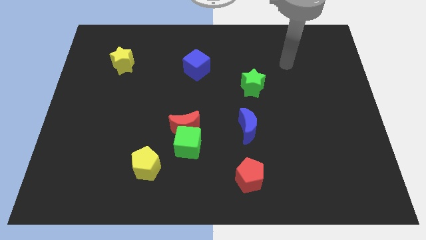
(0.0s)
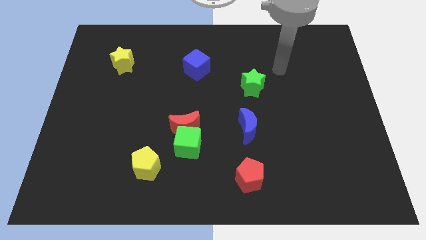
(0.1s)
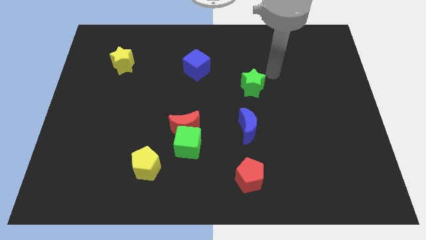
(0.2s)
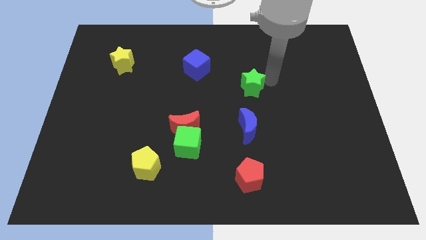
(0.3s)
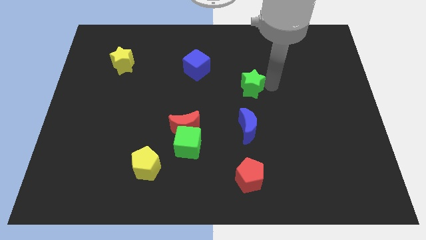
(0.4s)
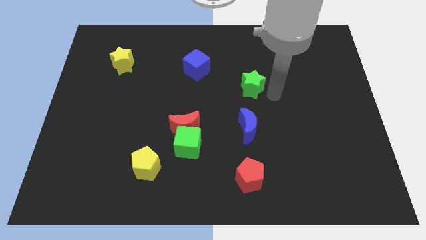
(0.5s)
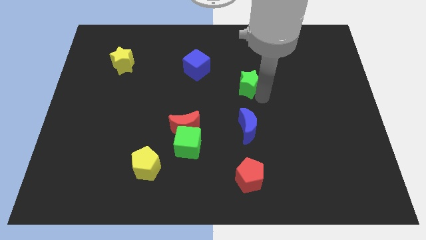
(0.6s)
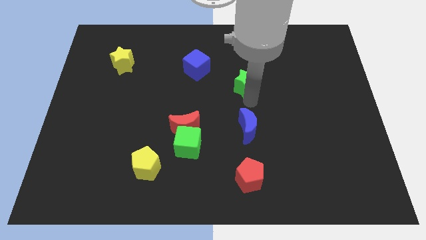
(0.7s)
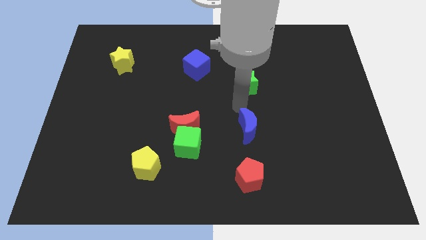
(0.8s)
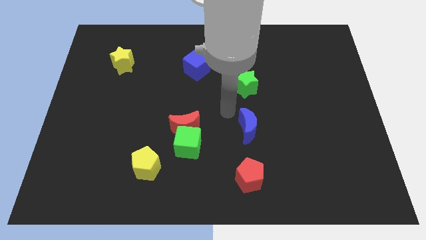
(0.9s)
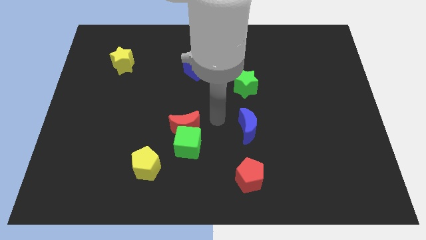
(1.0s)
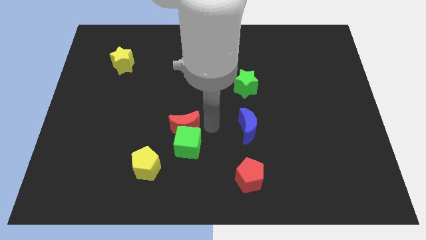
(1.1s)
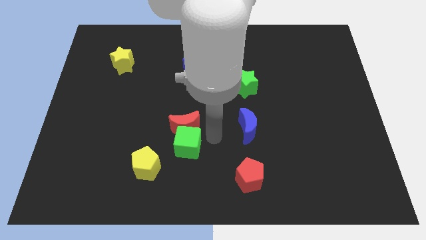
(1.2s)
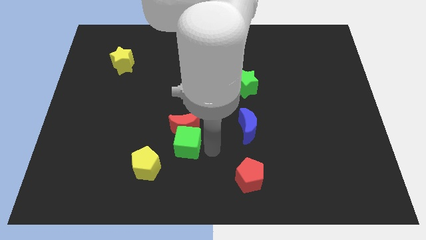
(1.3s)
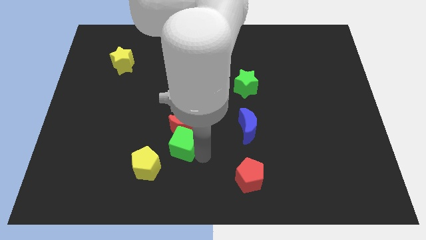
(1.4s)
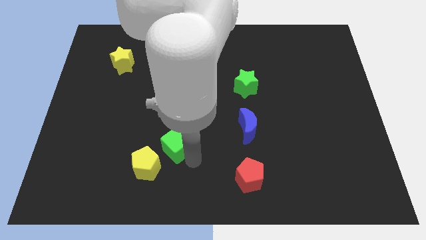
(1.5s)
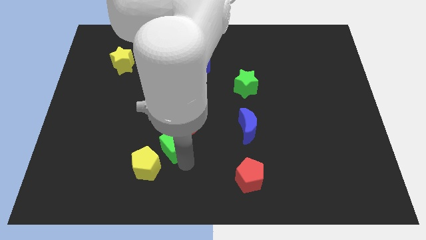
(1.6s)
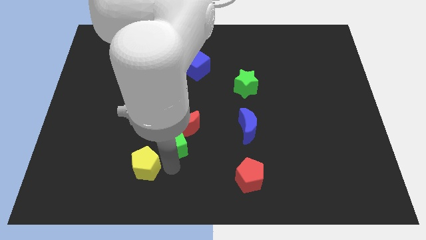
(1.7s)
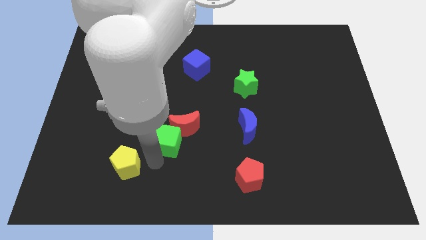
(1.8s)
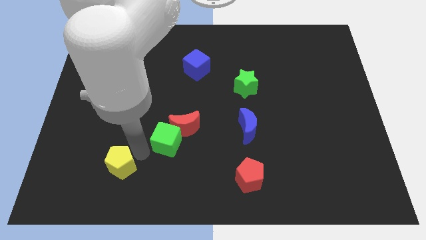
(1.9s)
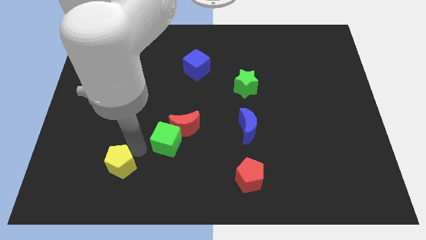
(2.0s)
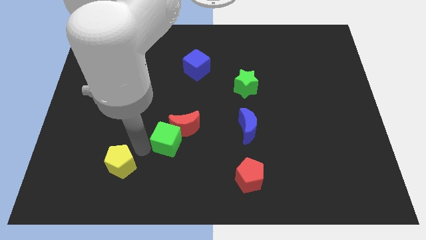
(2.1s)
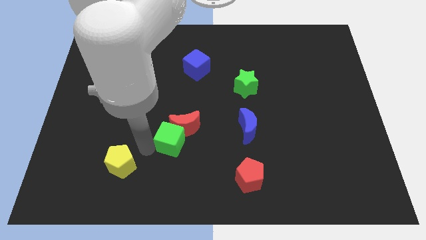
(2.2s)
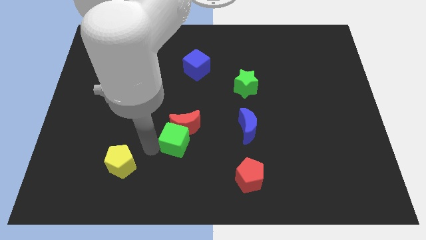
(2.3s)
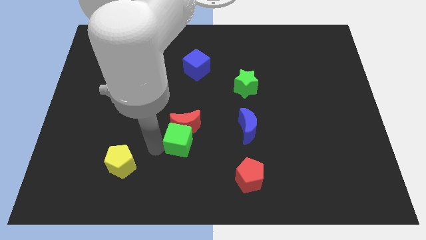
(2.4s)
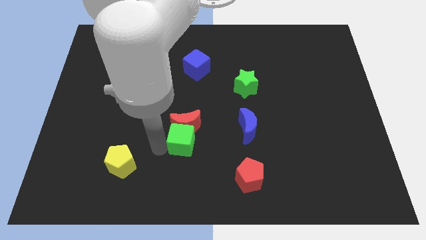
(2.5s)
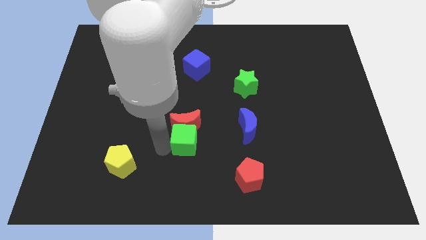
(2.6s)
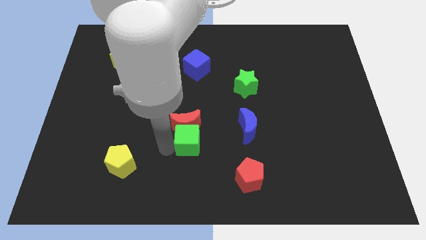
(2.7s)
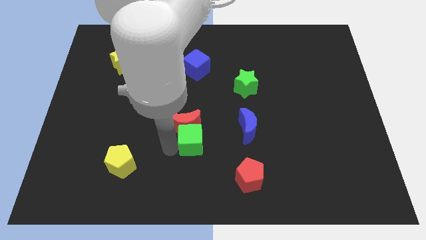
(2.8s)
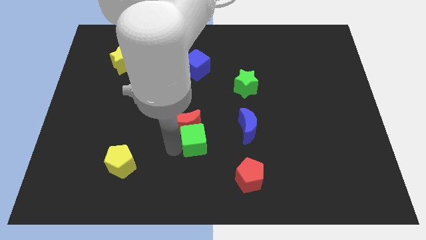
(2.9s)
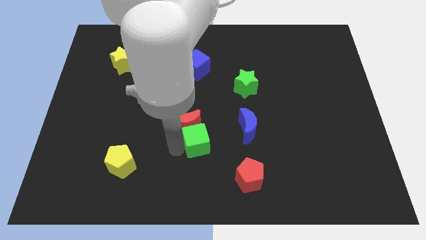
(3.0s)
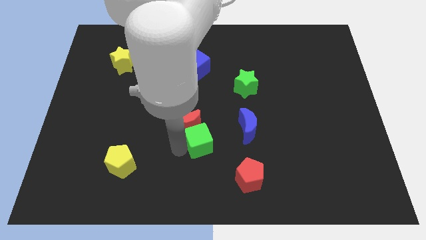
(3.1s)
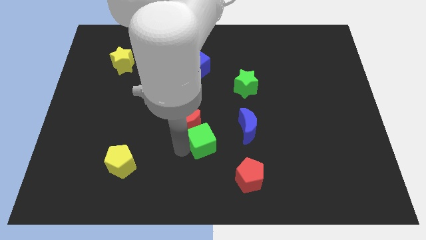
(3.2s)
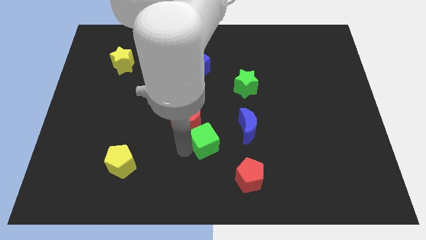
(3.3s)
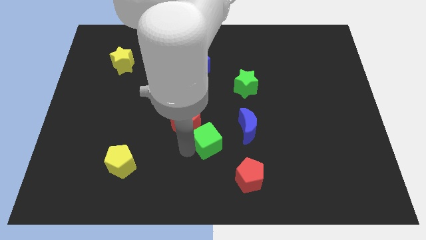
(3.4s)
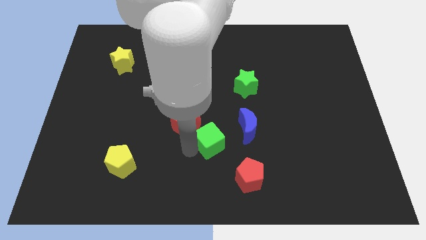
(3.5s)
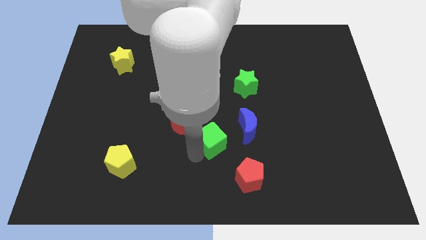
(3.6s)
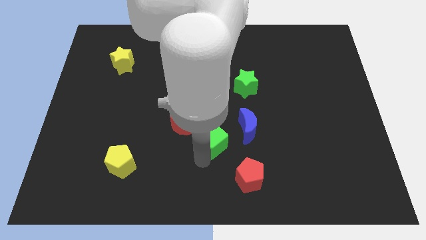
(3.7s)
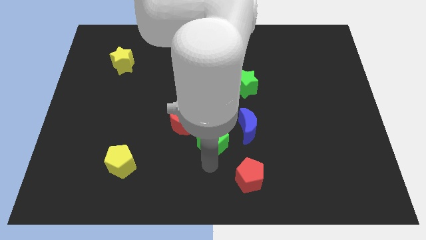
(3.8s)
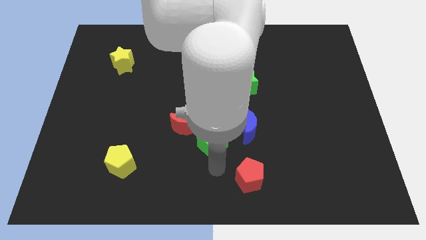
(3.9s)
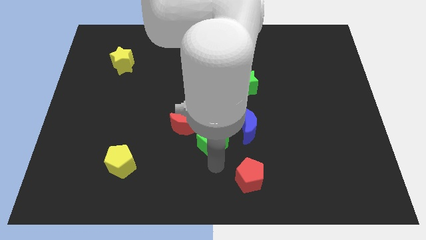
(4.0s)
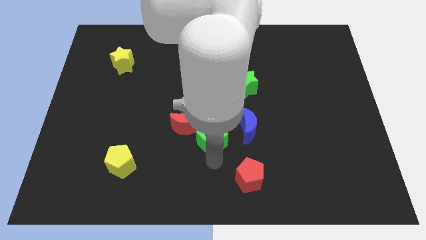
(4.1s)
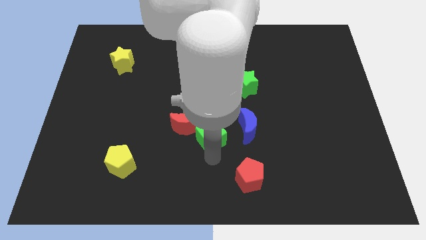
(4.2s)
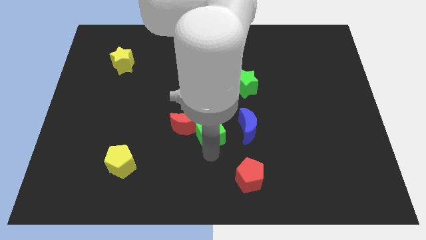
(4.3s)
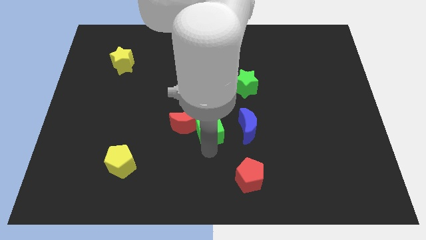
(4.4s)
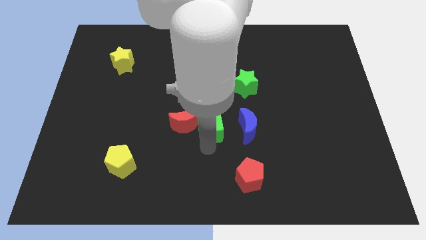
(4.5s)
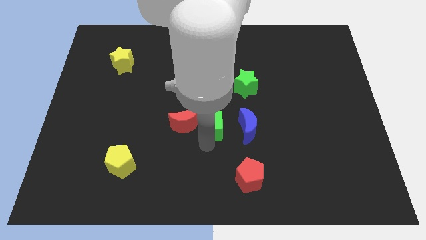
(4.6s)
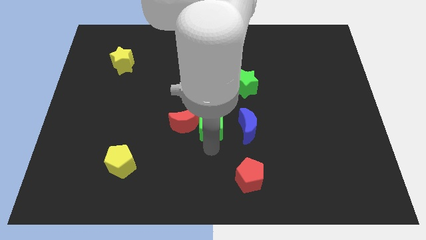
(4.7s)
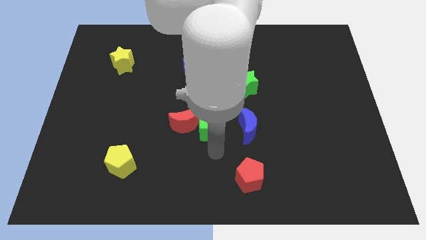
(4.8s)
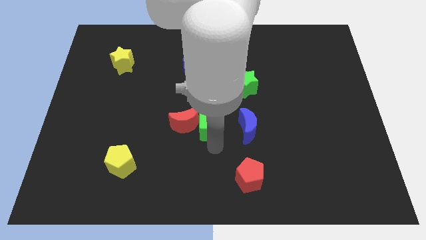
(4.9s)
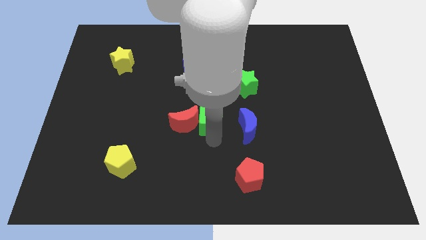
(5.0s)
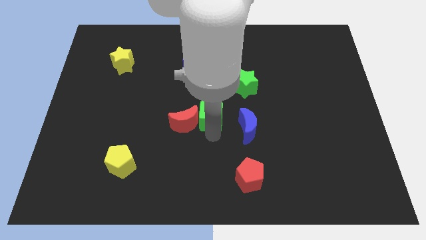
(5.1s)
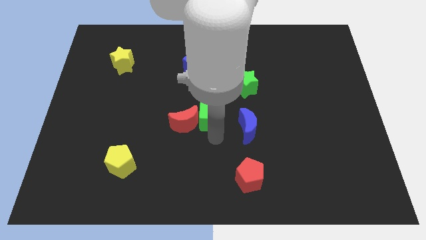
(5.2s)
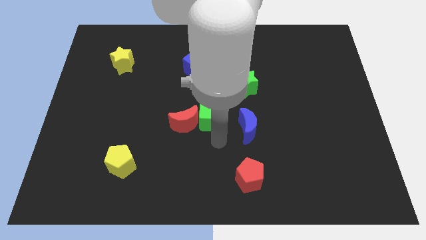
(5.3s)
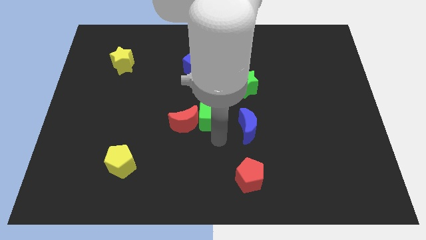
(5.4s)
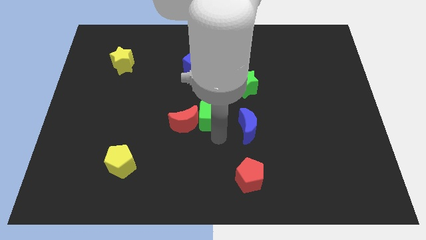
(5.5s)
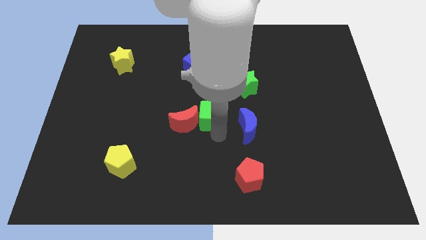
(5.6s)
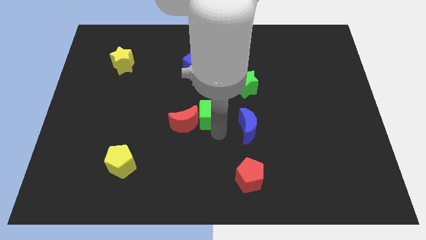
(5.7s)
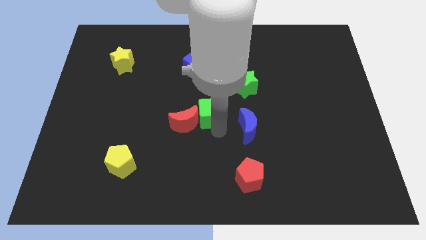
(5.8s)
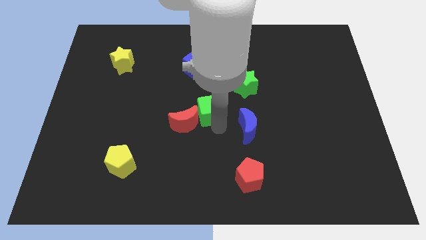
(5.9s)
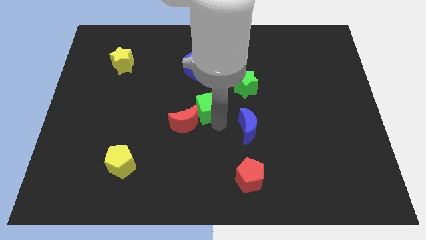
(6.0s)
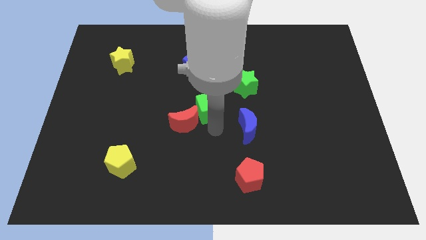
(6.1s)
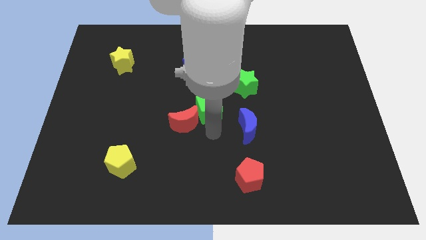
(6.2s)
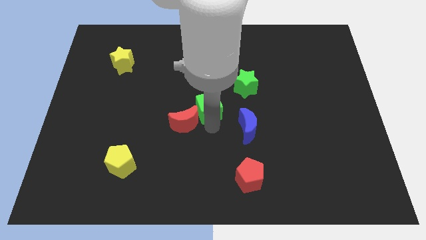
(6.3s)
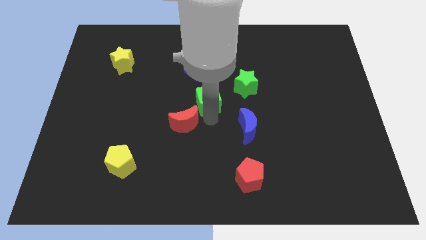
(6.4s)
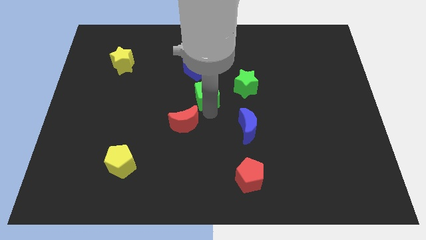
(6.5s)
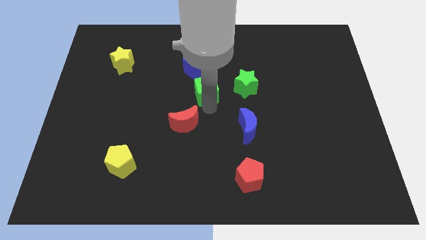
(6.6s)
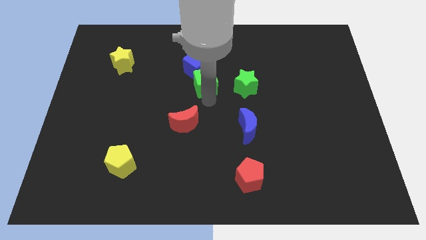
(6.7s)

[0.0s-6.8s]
slide the green cube to the blue cube

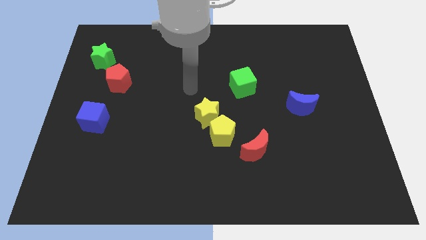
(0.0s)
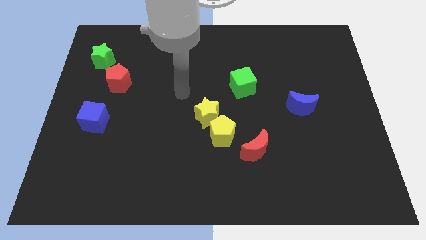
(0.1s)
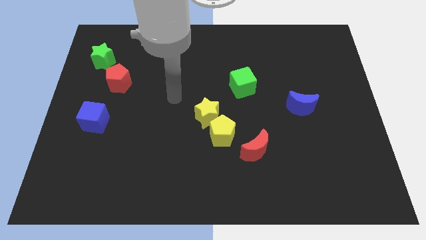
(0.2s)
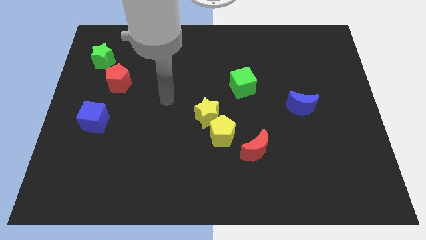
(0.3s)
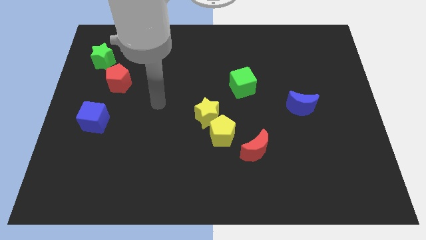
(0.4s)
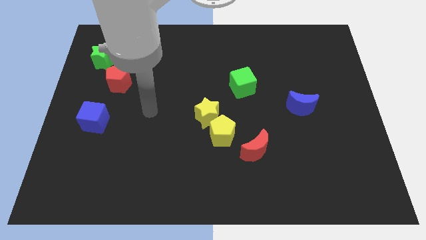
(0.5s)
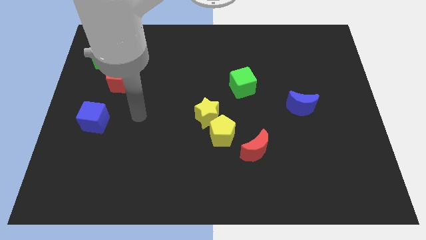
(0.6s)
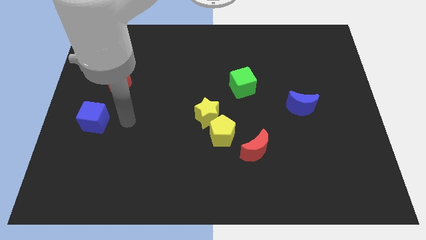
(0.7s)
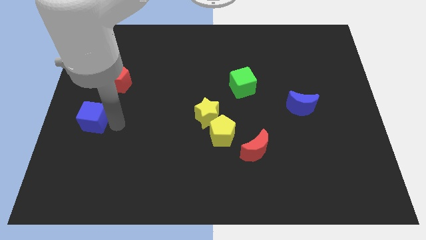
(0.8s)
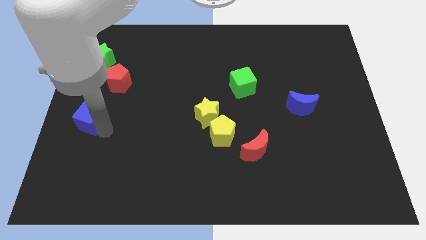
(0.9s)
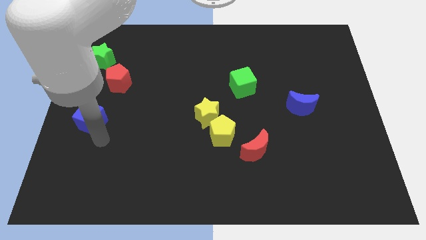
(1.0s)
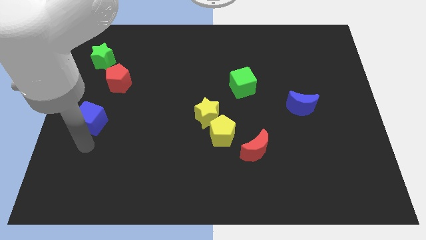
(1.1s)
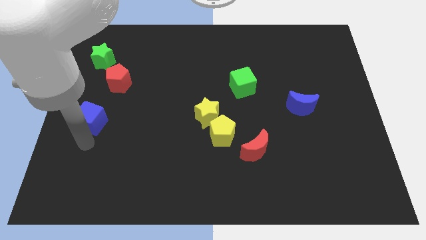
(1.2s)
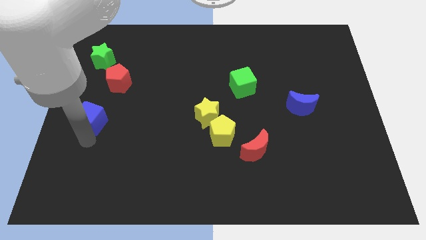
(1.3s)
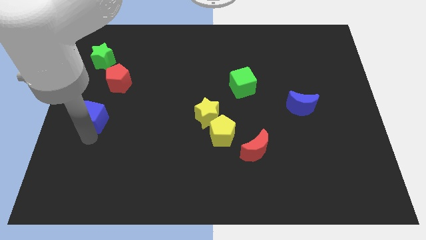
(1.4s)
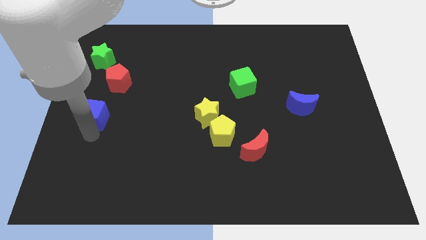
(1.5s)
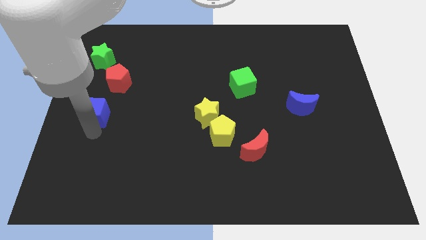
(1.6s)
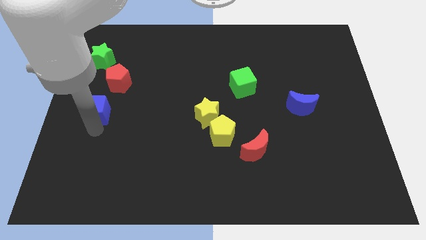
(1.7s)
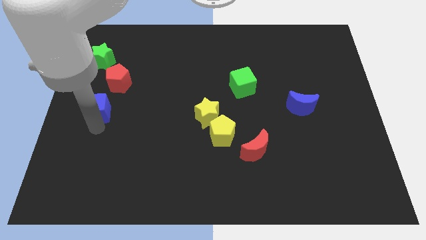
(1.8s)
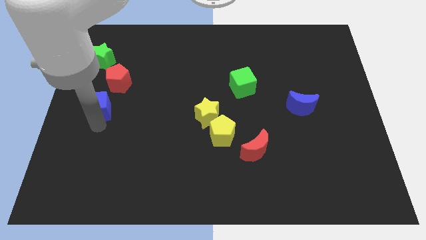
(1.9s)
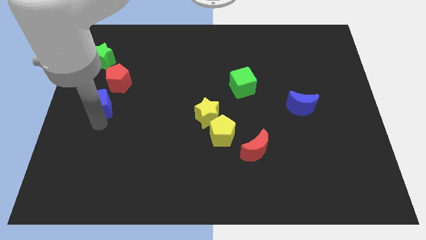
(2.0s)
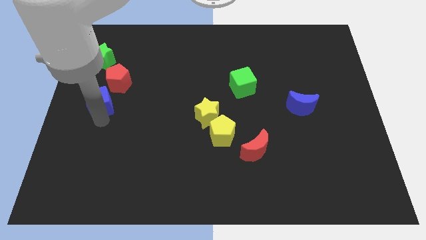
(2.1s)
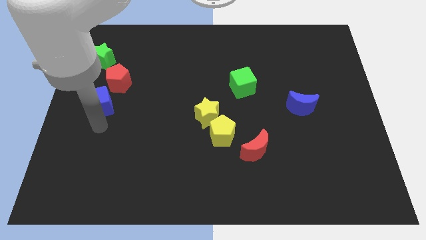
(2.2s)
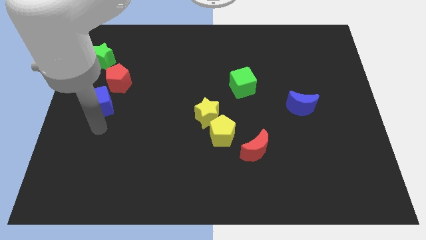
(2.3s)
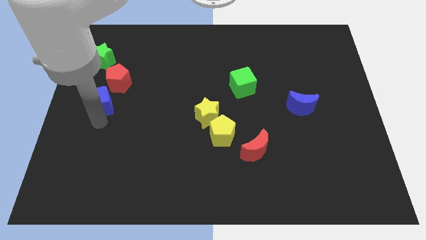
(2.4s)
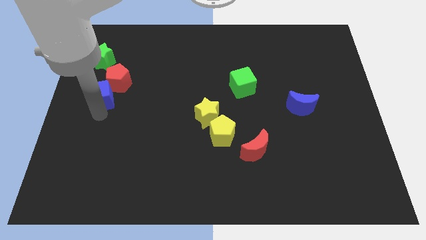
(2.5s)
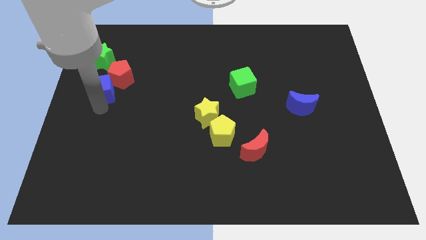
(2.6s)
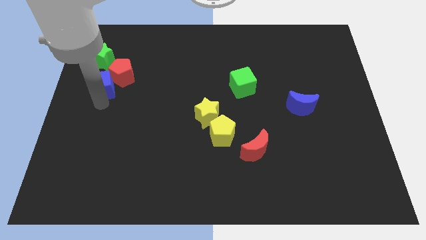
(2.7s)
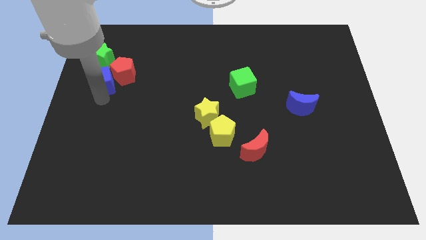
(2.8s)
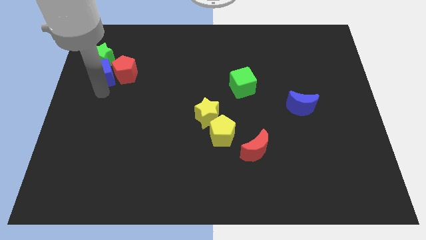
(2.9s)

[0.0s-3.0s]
push the blue cube next to the green star
